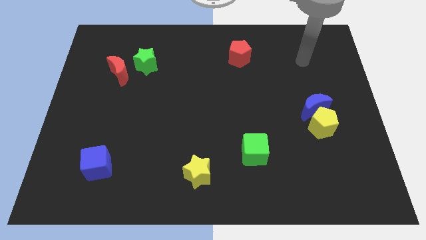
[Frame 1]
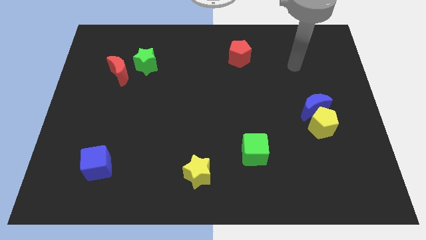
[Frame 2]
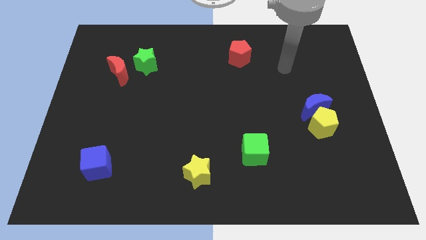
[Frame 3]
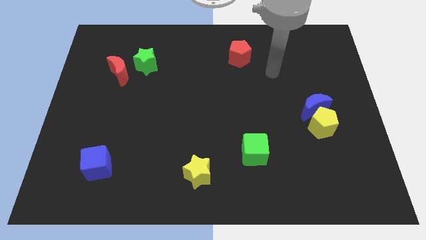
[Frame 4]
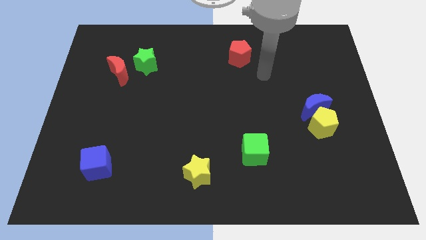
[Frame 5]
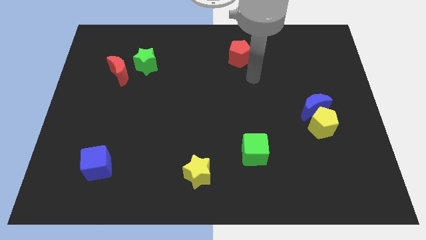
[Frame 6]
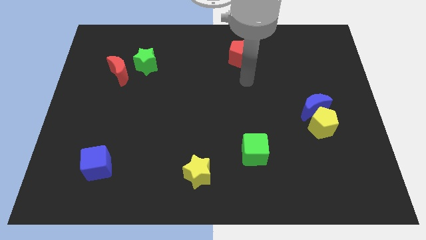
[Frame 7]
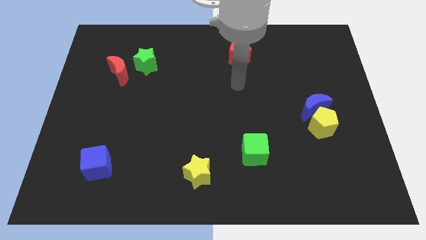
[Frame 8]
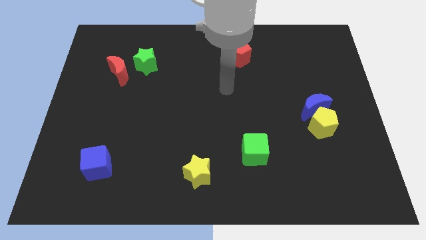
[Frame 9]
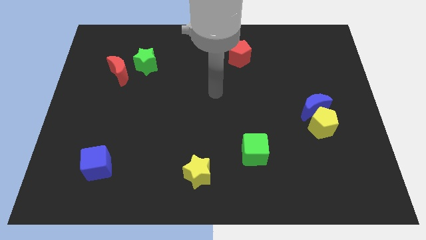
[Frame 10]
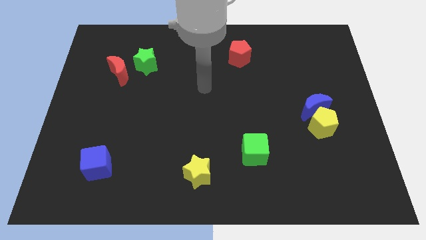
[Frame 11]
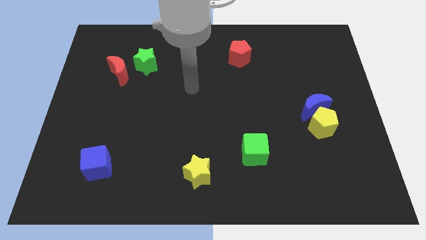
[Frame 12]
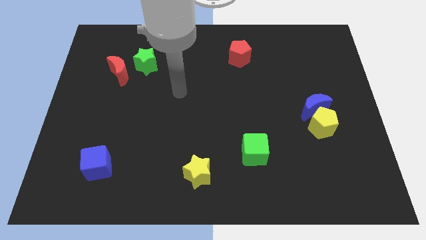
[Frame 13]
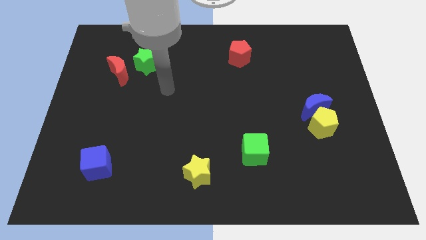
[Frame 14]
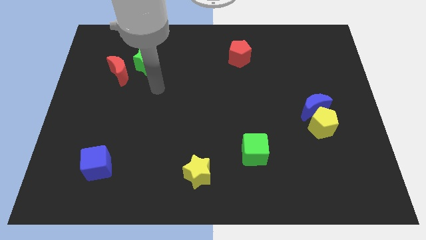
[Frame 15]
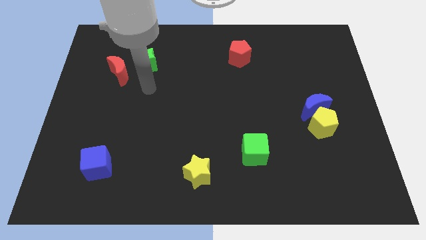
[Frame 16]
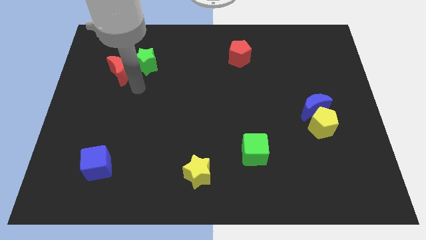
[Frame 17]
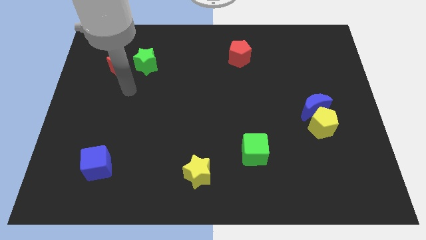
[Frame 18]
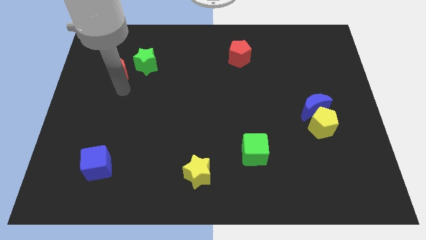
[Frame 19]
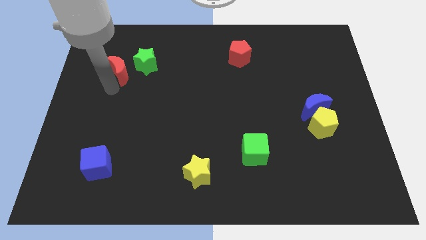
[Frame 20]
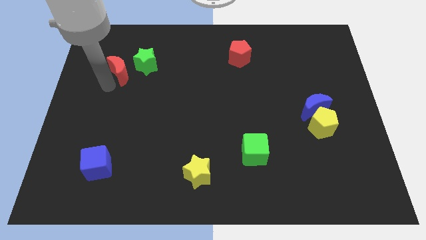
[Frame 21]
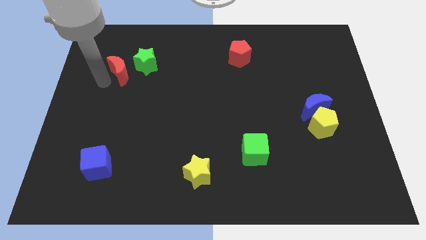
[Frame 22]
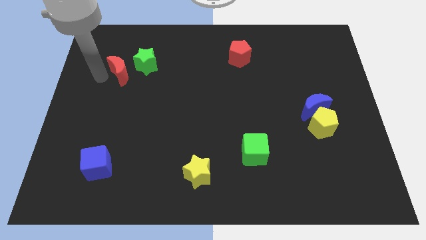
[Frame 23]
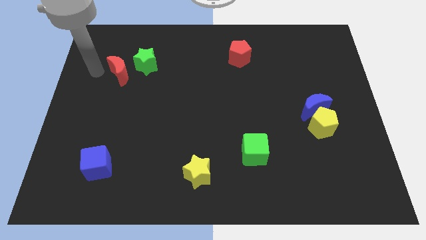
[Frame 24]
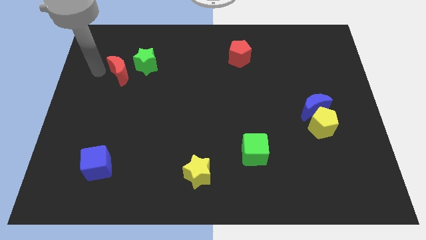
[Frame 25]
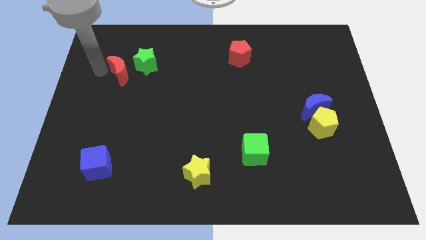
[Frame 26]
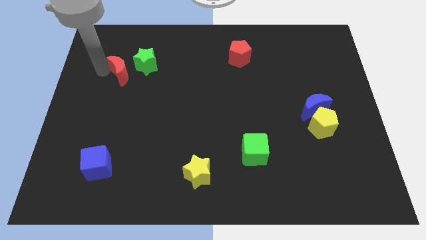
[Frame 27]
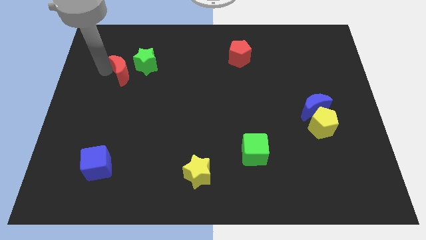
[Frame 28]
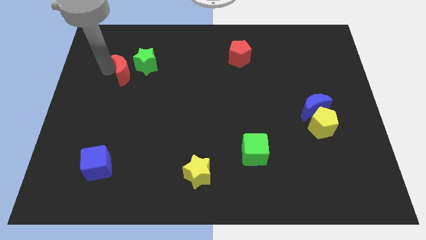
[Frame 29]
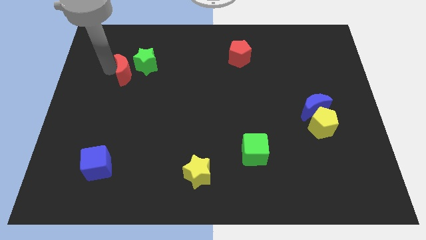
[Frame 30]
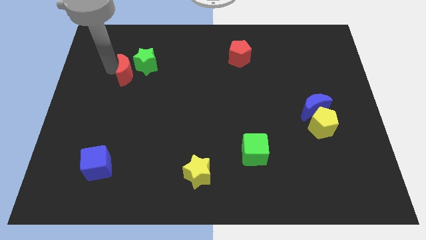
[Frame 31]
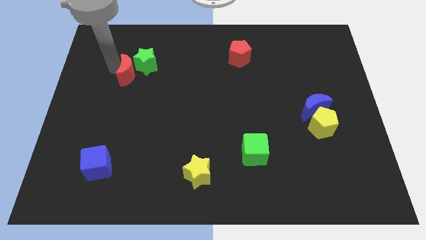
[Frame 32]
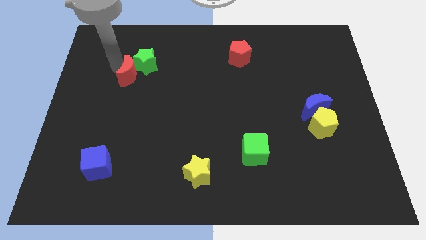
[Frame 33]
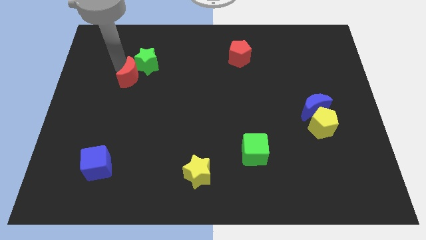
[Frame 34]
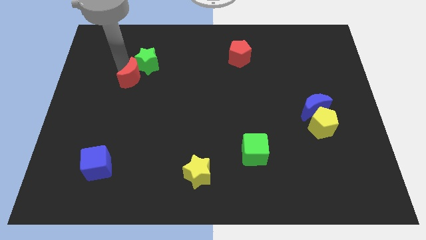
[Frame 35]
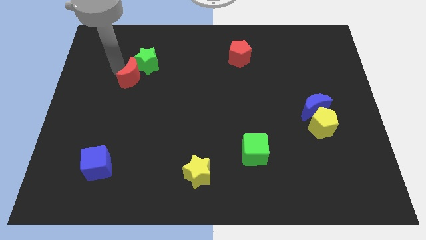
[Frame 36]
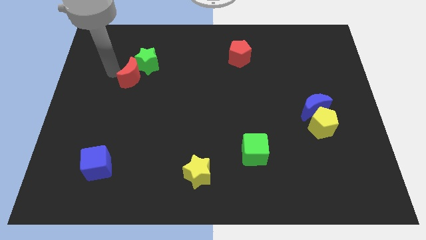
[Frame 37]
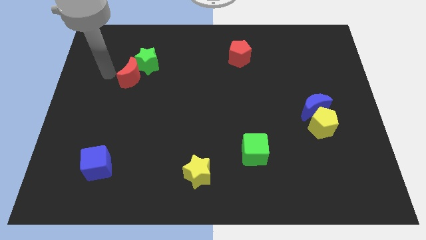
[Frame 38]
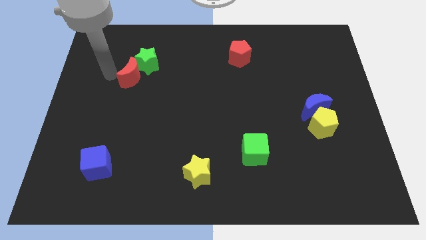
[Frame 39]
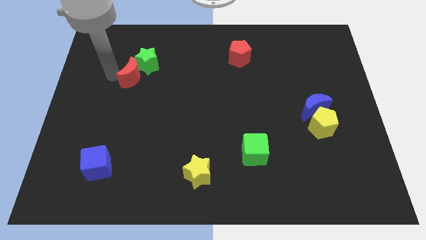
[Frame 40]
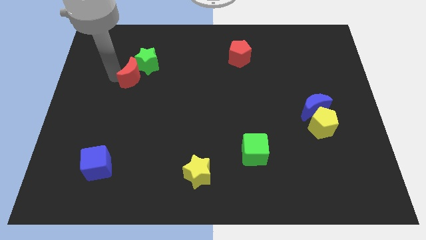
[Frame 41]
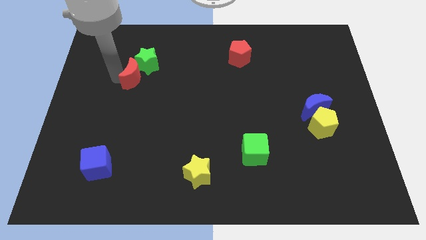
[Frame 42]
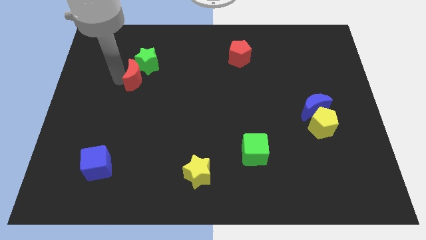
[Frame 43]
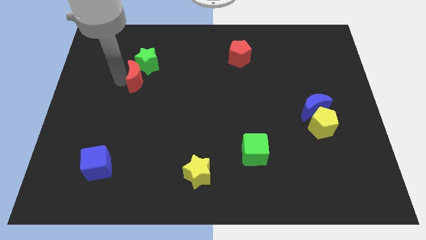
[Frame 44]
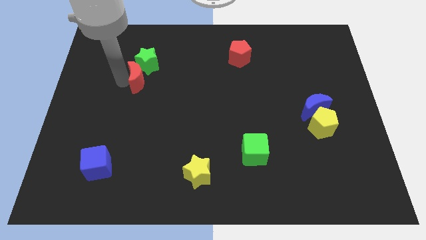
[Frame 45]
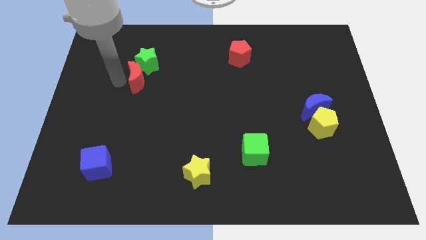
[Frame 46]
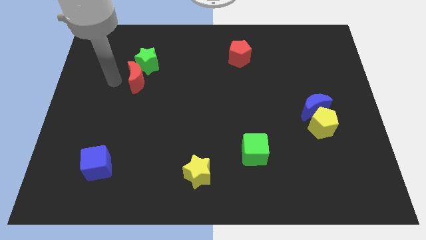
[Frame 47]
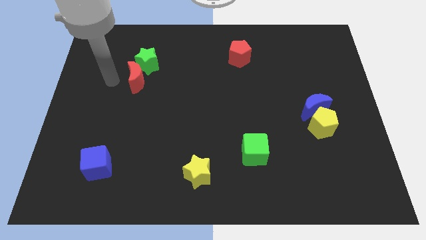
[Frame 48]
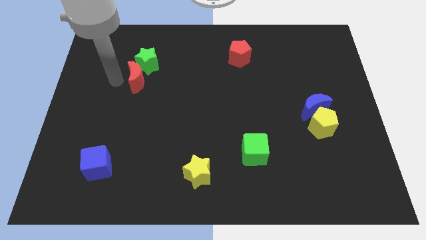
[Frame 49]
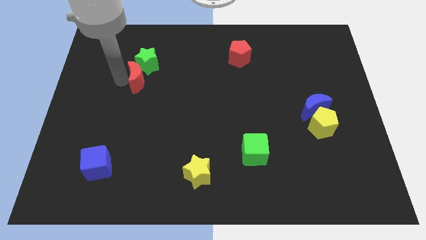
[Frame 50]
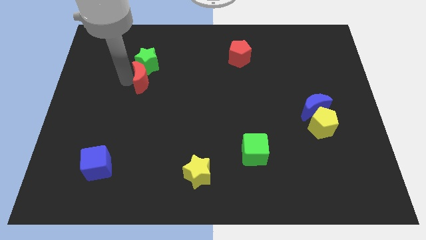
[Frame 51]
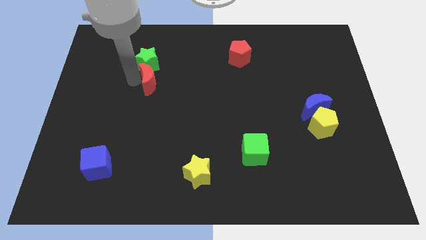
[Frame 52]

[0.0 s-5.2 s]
slightly push the red moon to the right

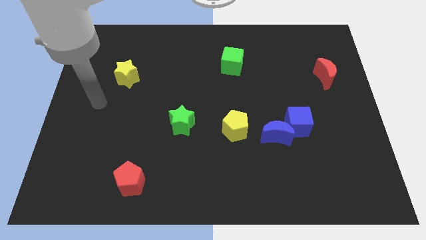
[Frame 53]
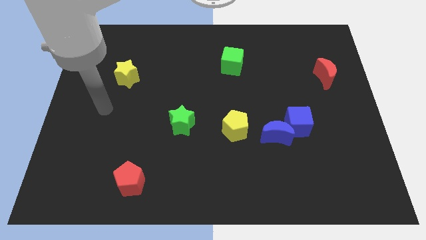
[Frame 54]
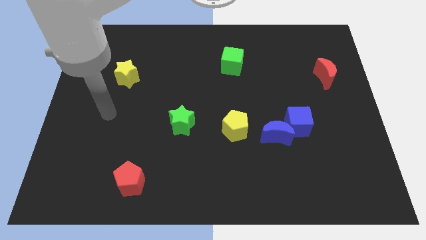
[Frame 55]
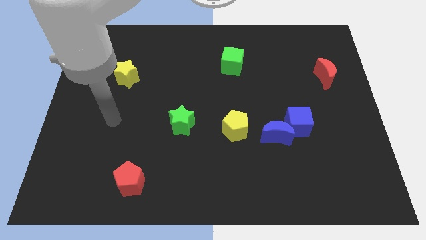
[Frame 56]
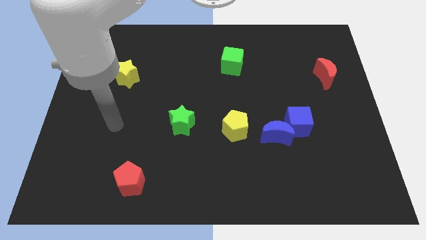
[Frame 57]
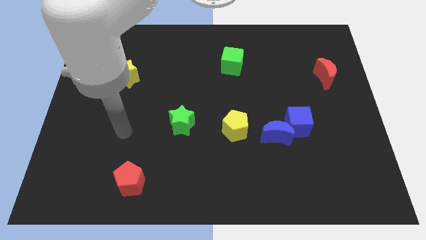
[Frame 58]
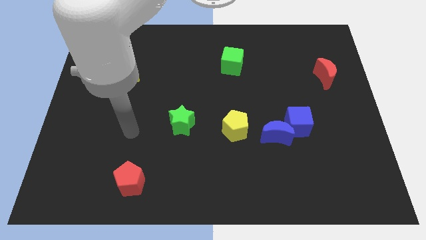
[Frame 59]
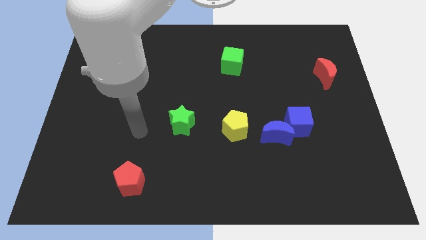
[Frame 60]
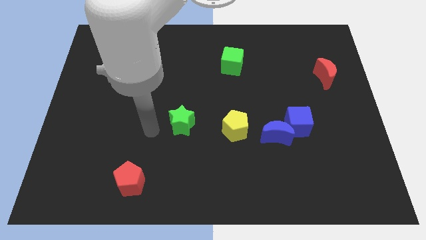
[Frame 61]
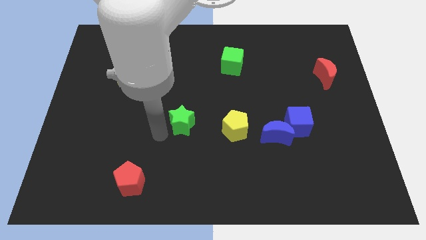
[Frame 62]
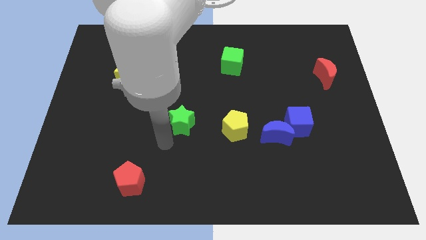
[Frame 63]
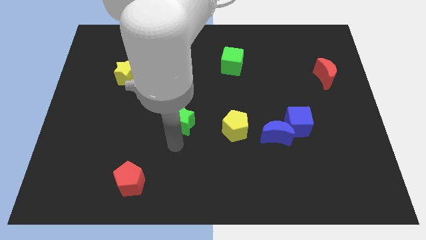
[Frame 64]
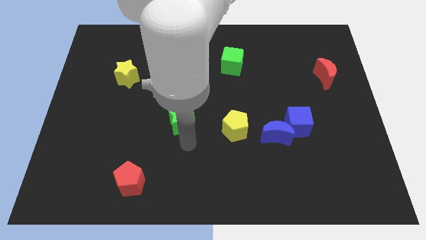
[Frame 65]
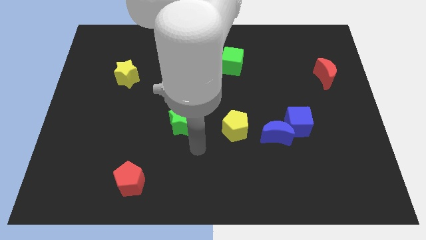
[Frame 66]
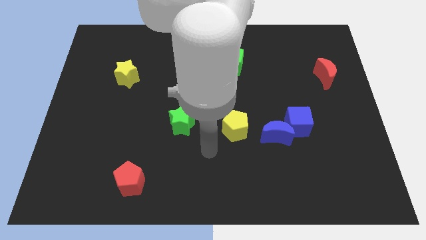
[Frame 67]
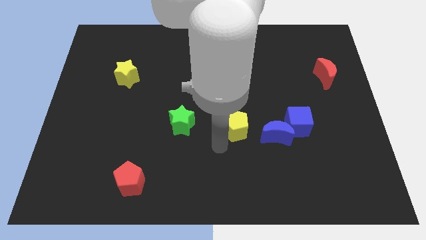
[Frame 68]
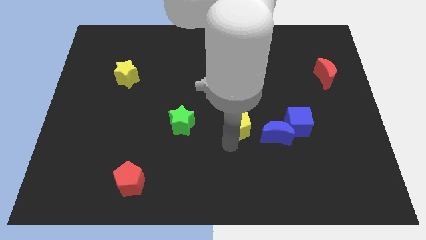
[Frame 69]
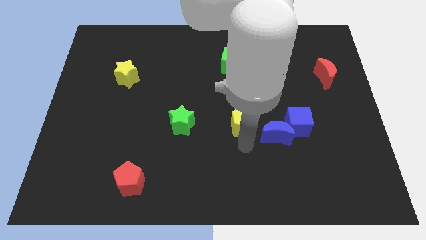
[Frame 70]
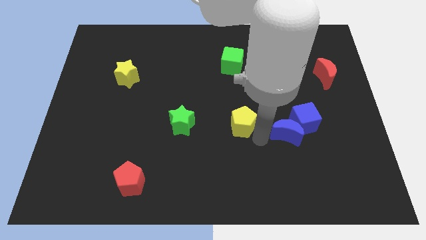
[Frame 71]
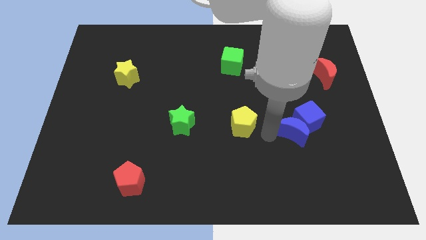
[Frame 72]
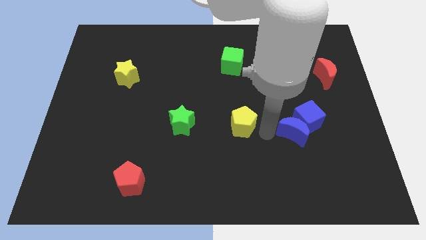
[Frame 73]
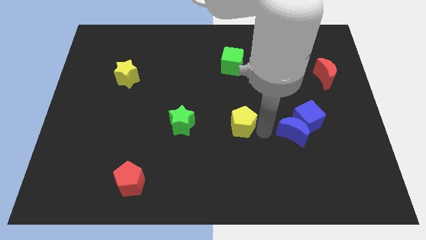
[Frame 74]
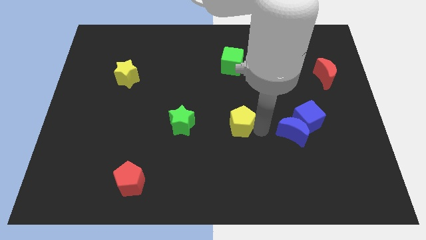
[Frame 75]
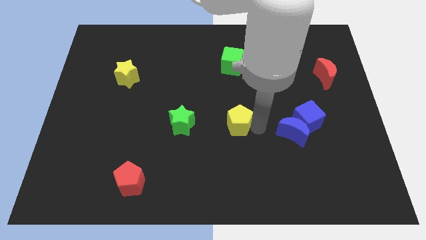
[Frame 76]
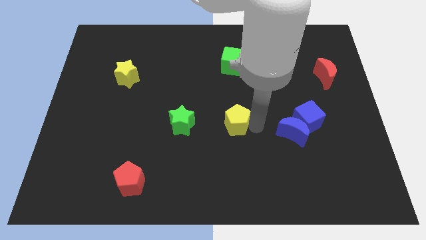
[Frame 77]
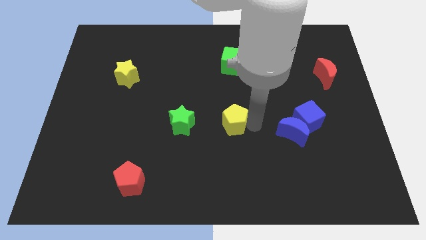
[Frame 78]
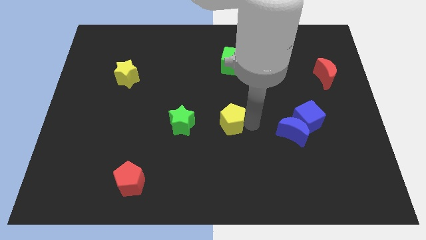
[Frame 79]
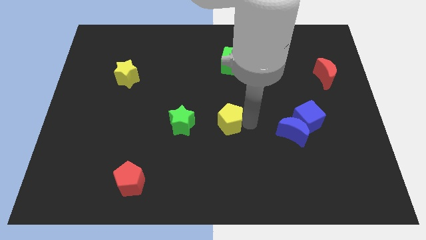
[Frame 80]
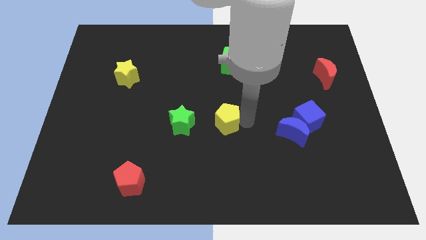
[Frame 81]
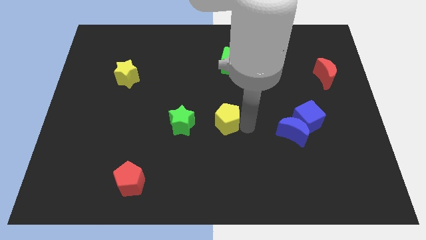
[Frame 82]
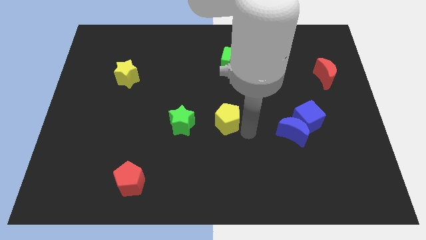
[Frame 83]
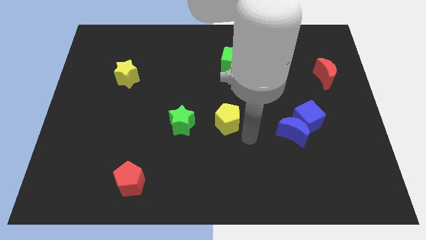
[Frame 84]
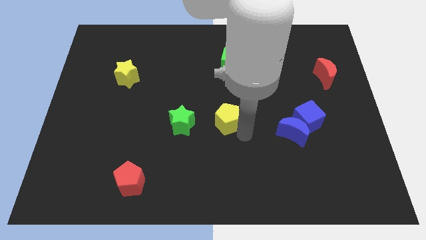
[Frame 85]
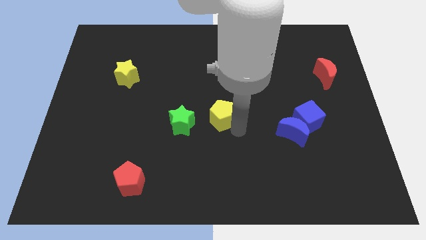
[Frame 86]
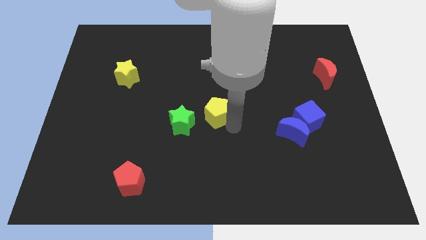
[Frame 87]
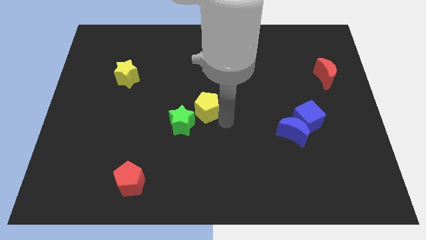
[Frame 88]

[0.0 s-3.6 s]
slightly slide the yellow pentagon up and then to the left
